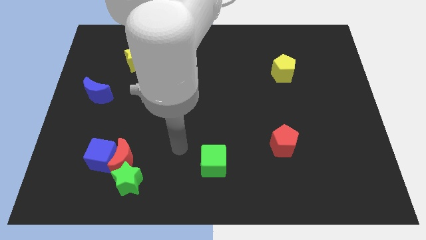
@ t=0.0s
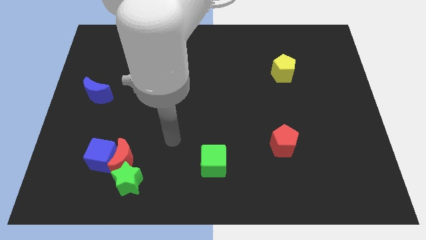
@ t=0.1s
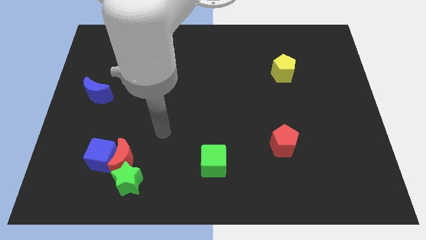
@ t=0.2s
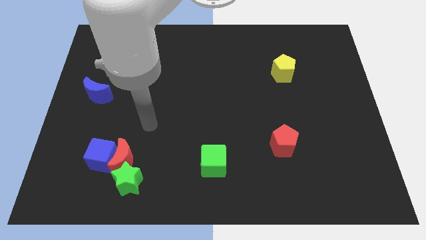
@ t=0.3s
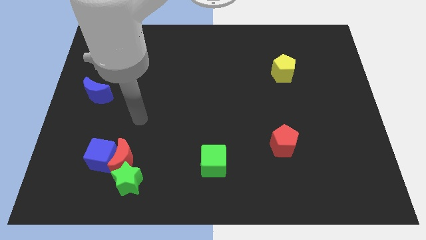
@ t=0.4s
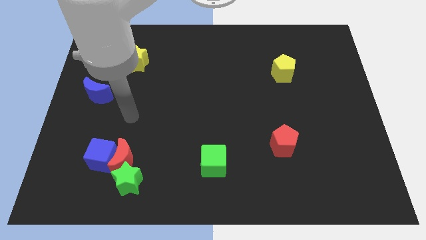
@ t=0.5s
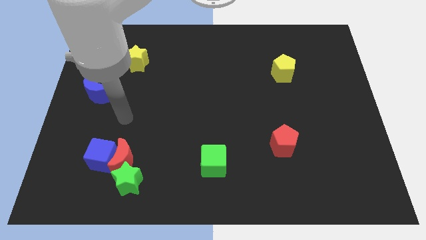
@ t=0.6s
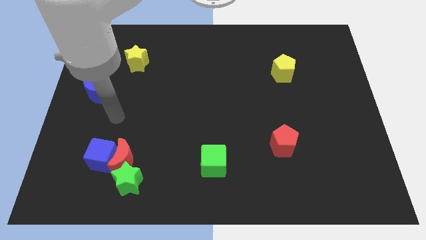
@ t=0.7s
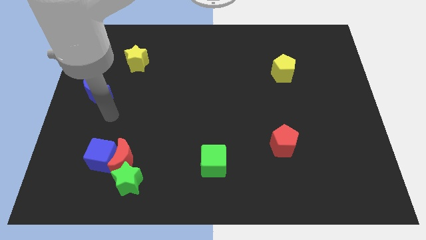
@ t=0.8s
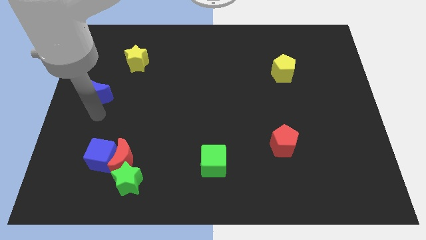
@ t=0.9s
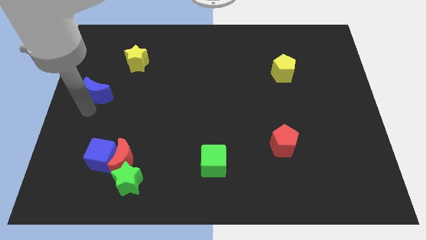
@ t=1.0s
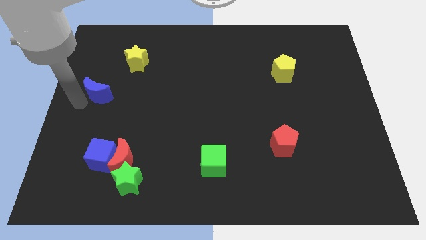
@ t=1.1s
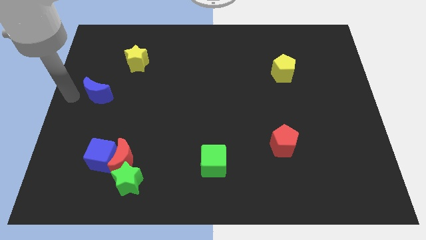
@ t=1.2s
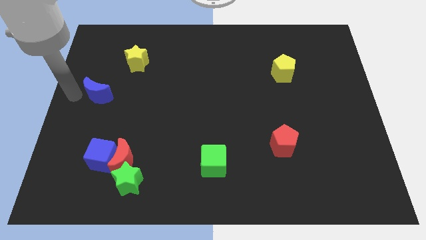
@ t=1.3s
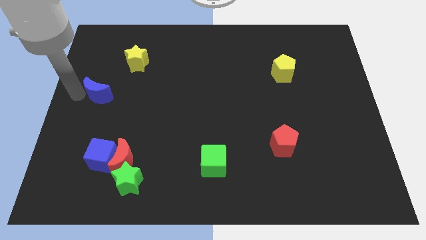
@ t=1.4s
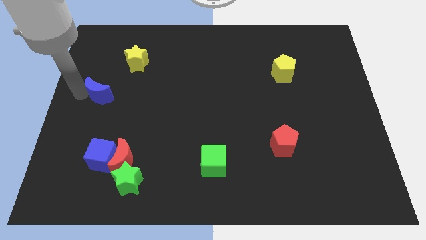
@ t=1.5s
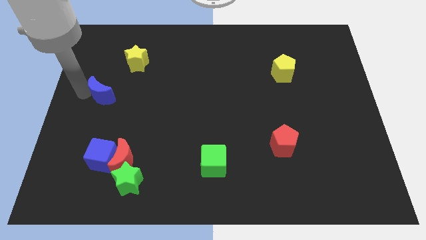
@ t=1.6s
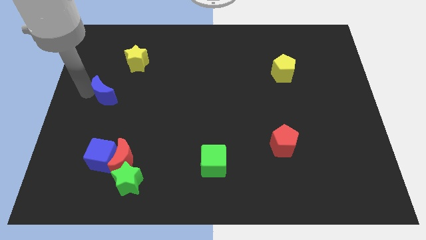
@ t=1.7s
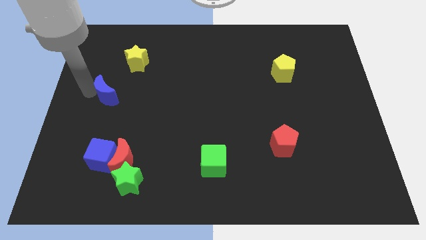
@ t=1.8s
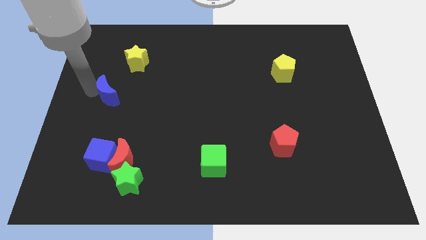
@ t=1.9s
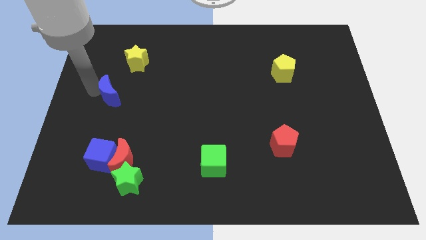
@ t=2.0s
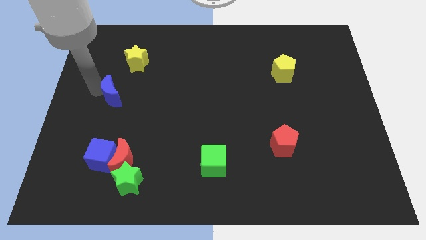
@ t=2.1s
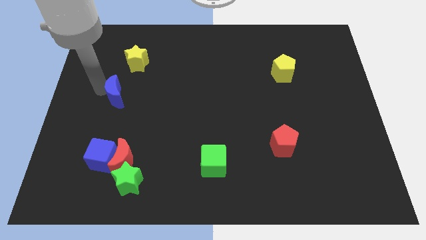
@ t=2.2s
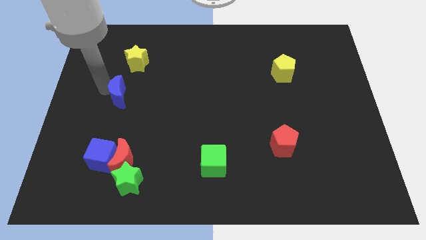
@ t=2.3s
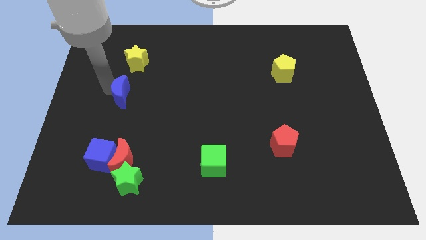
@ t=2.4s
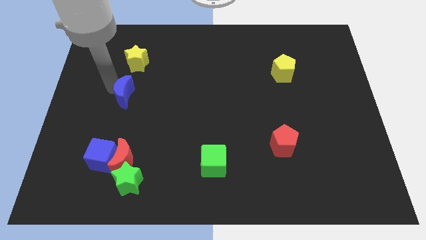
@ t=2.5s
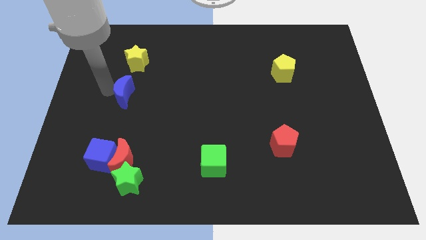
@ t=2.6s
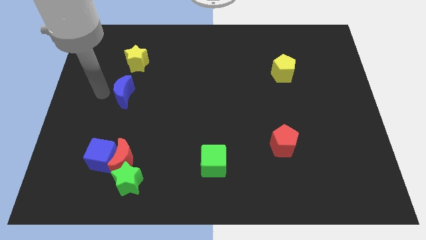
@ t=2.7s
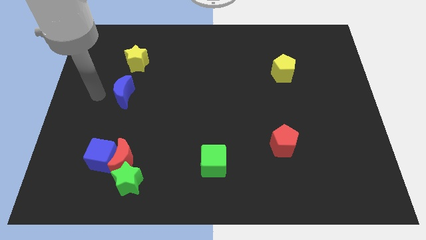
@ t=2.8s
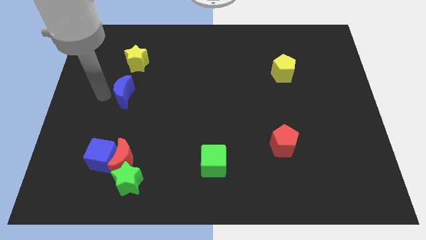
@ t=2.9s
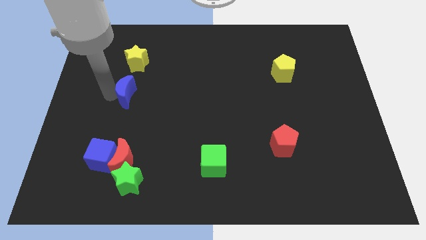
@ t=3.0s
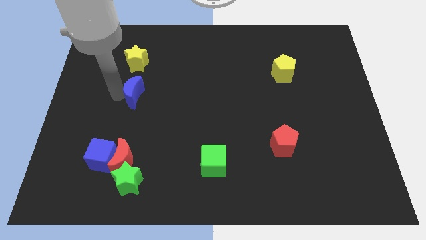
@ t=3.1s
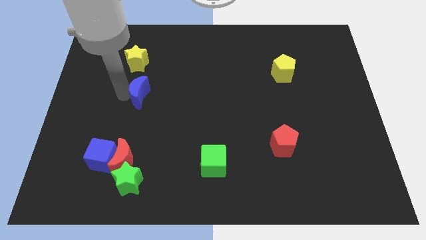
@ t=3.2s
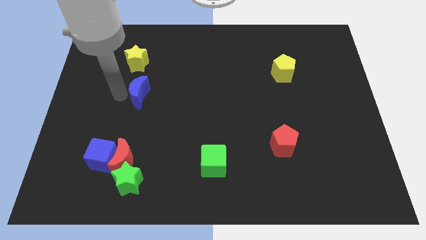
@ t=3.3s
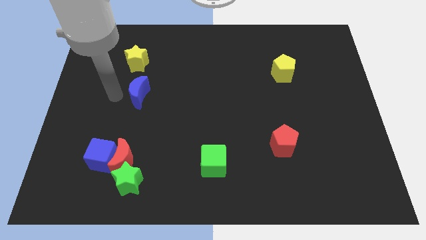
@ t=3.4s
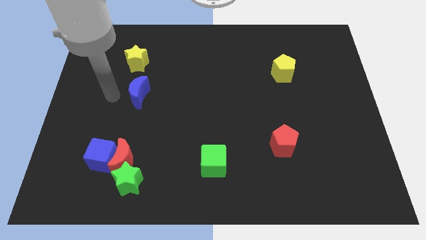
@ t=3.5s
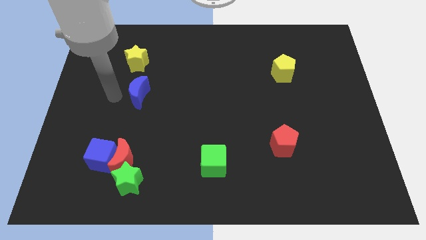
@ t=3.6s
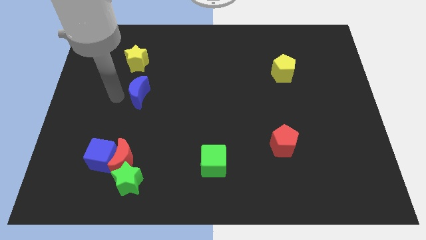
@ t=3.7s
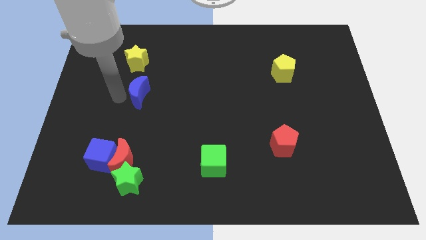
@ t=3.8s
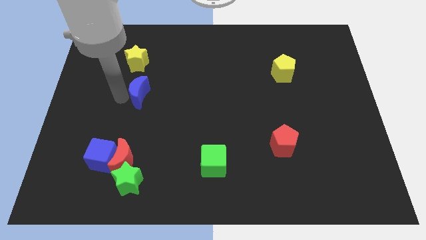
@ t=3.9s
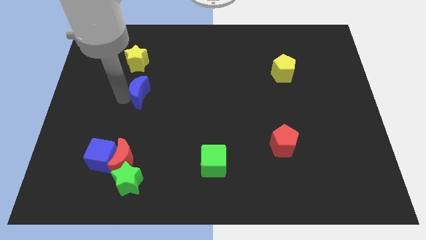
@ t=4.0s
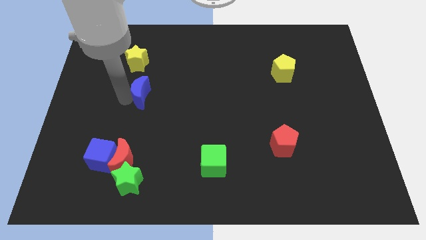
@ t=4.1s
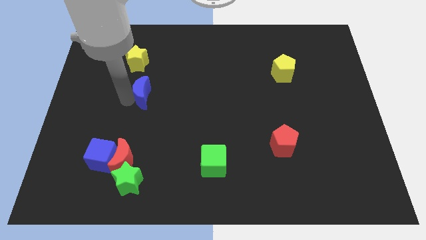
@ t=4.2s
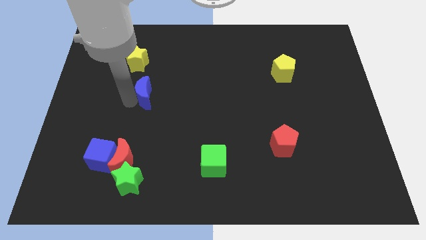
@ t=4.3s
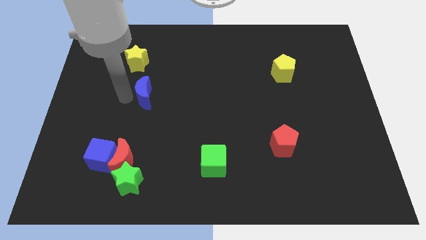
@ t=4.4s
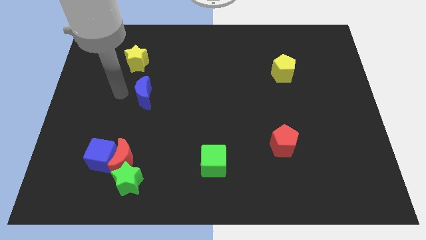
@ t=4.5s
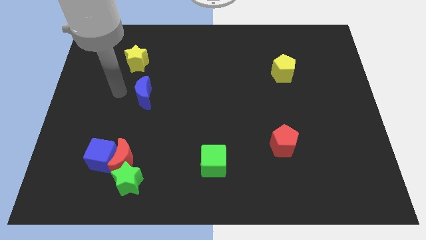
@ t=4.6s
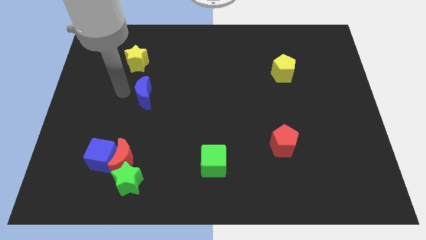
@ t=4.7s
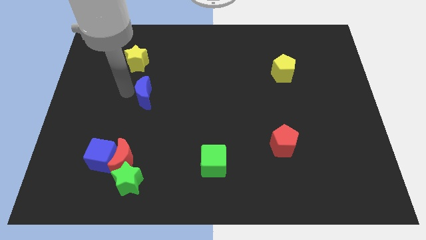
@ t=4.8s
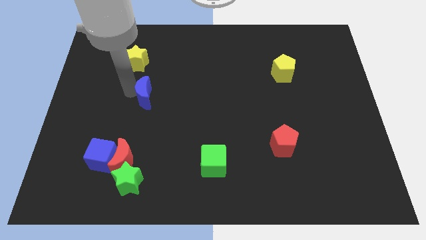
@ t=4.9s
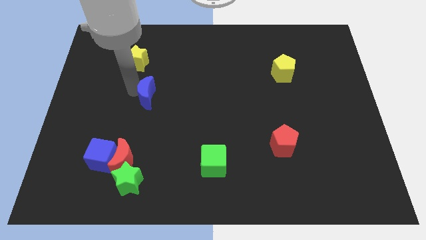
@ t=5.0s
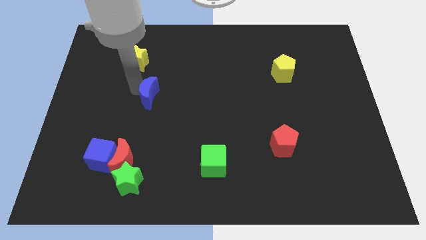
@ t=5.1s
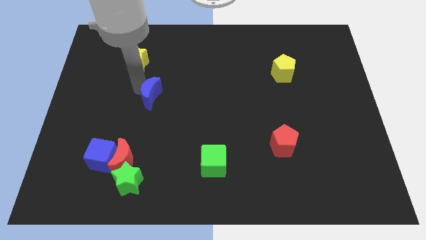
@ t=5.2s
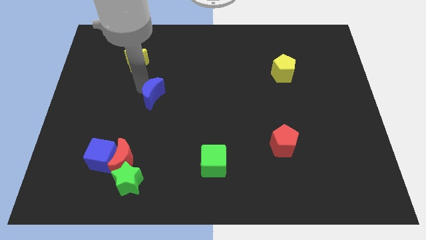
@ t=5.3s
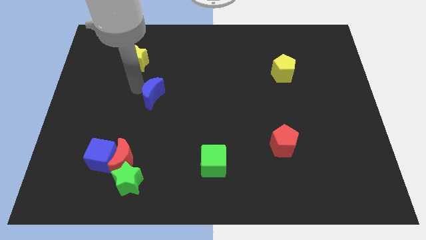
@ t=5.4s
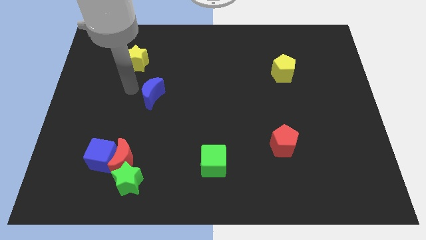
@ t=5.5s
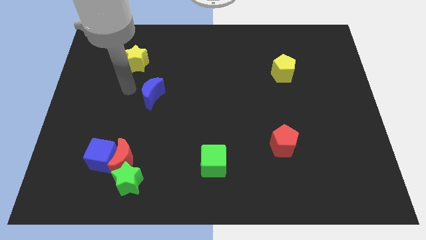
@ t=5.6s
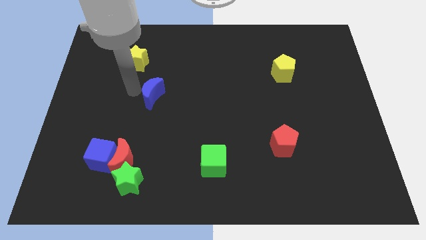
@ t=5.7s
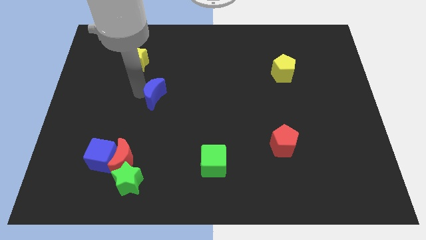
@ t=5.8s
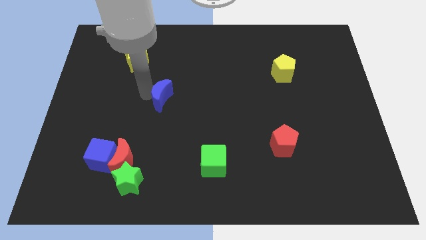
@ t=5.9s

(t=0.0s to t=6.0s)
slide the blue moon to the middle of the board

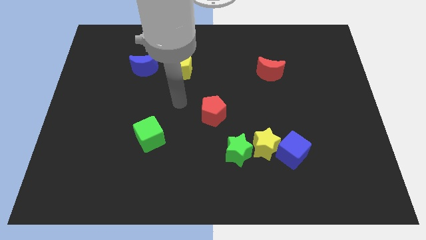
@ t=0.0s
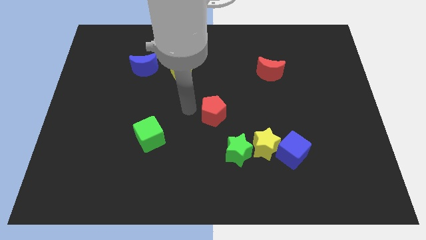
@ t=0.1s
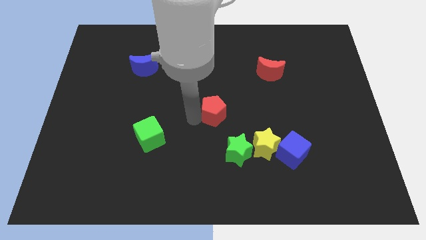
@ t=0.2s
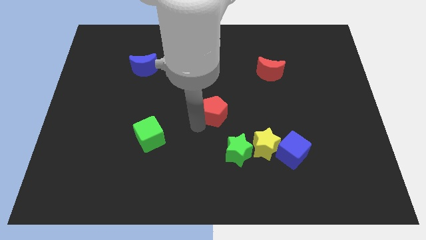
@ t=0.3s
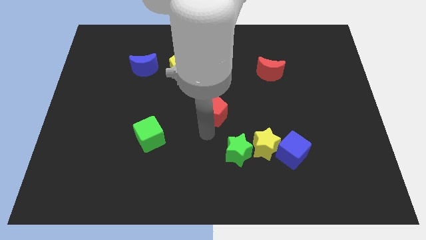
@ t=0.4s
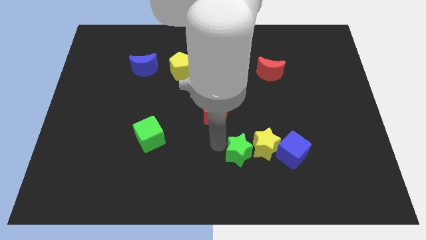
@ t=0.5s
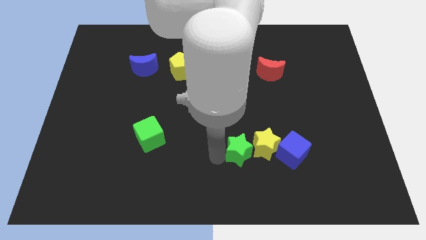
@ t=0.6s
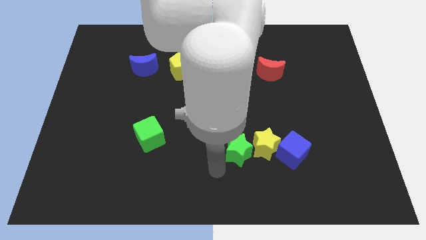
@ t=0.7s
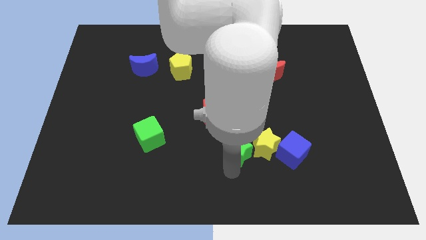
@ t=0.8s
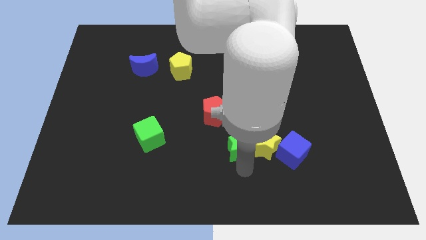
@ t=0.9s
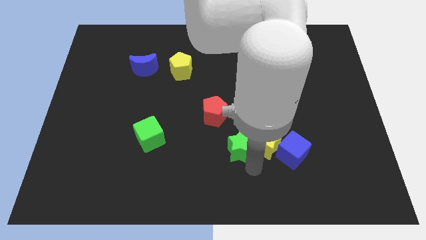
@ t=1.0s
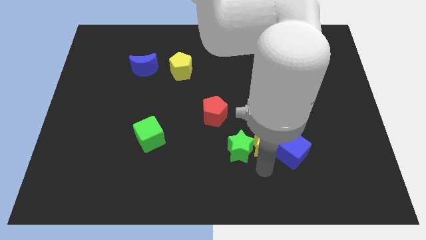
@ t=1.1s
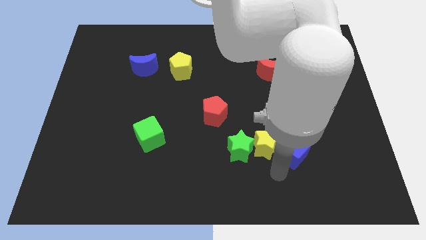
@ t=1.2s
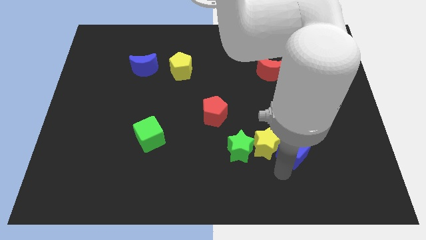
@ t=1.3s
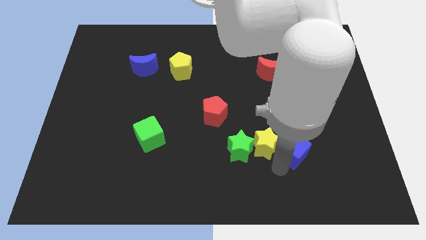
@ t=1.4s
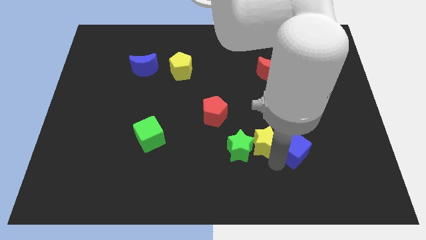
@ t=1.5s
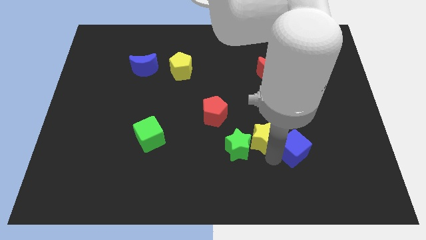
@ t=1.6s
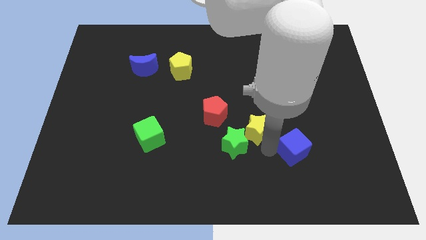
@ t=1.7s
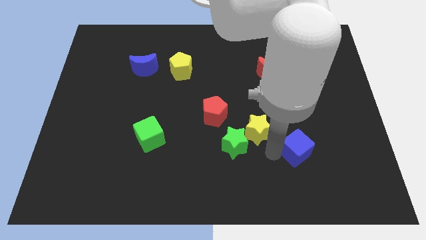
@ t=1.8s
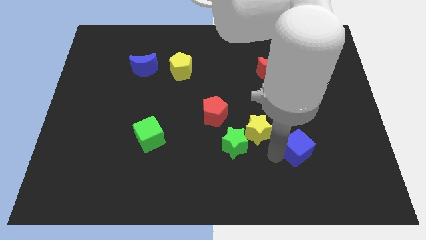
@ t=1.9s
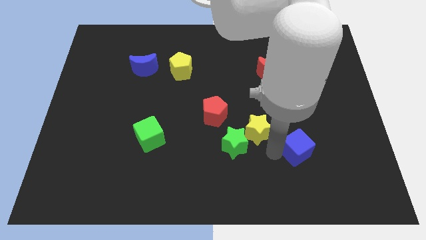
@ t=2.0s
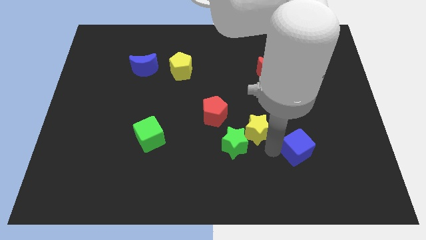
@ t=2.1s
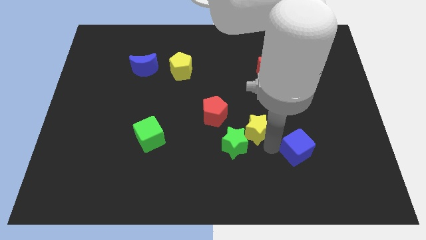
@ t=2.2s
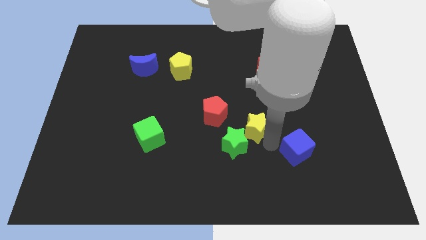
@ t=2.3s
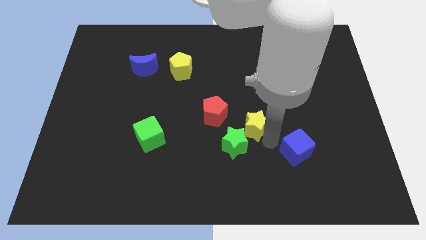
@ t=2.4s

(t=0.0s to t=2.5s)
push the yellow star to the middle of the board
